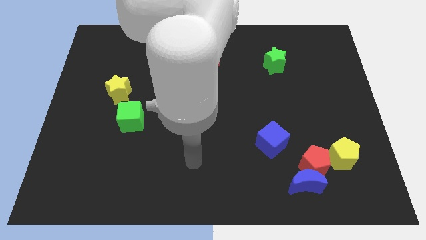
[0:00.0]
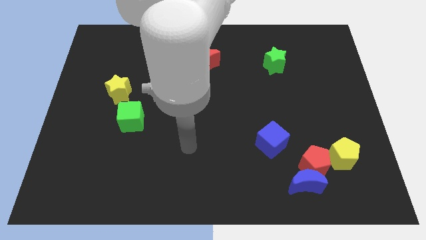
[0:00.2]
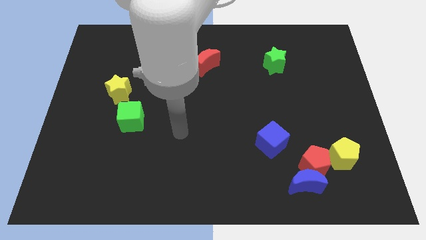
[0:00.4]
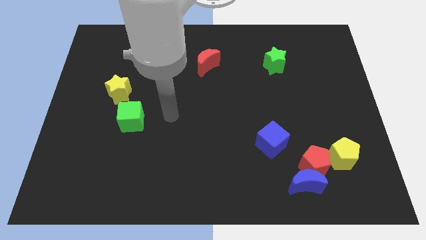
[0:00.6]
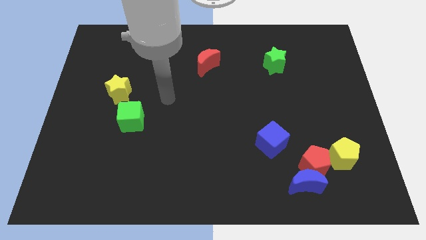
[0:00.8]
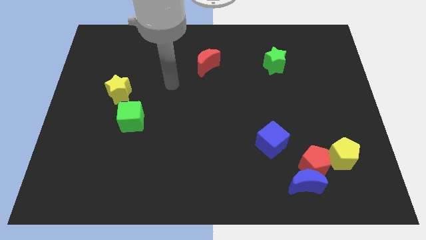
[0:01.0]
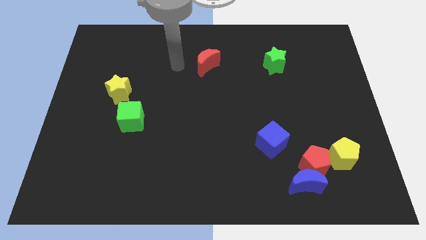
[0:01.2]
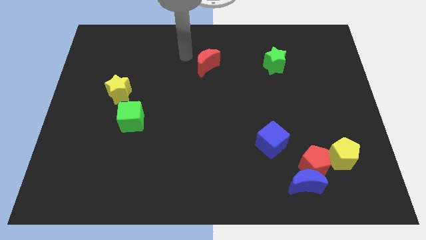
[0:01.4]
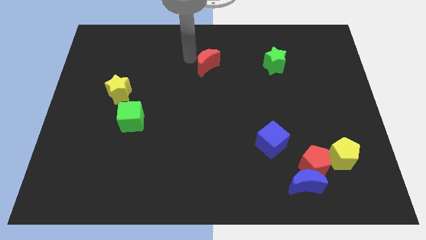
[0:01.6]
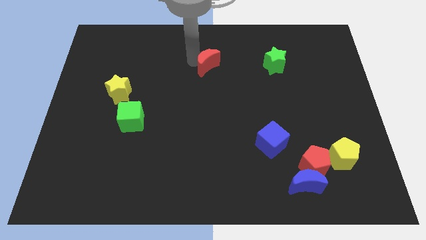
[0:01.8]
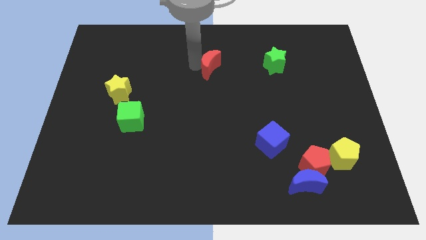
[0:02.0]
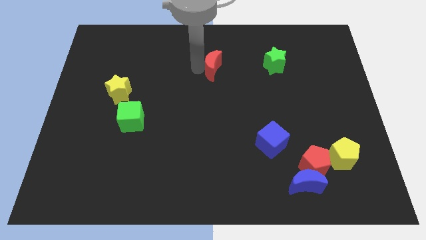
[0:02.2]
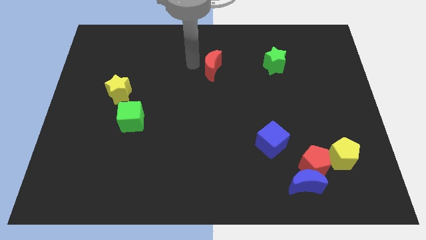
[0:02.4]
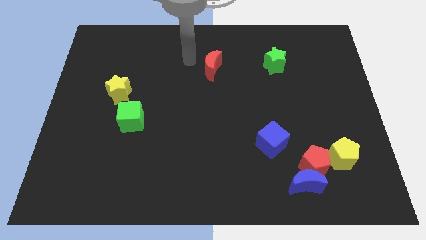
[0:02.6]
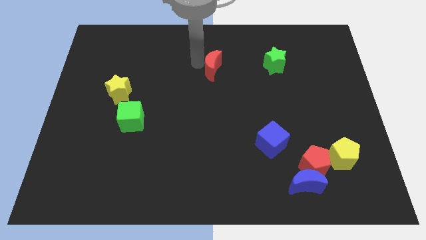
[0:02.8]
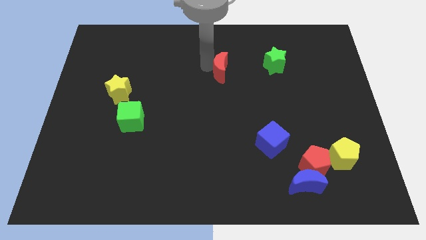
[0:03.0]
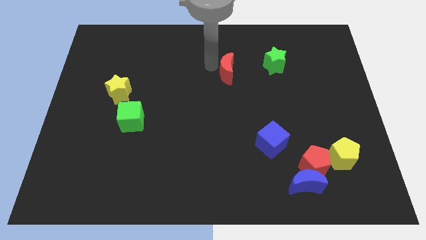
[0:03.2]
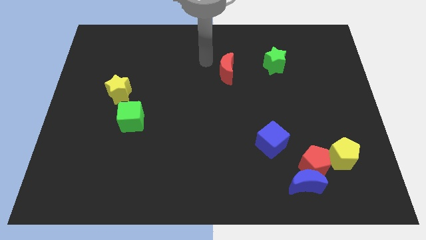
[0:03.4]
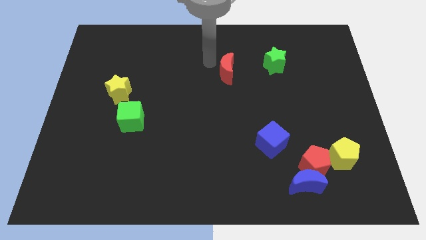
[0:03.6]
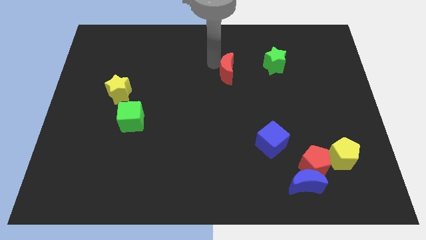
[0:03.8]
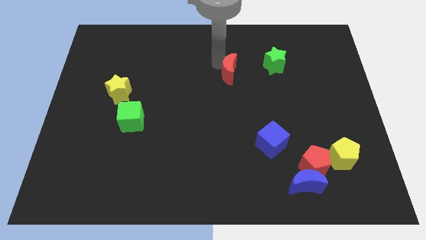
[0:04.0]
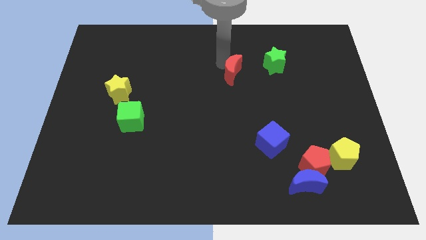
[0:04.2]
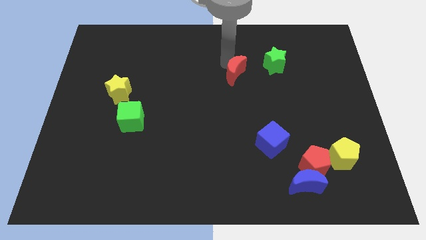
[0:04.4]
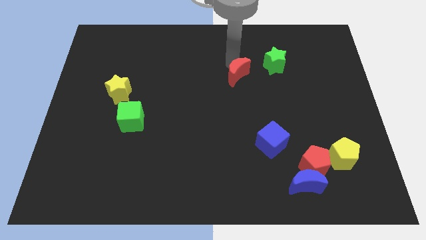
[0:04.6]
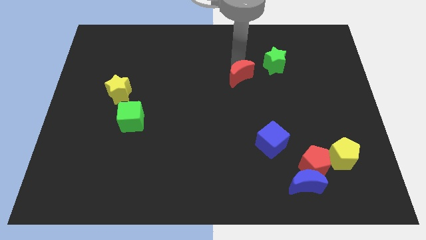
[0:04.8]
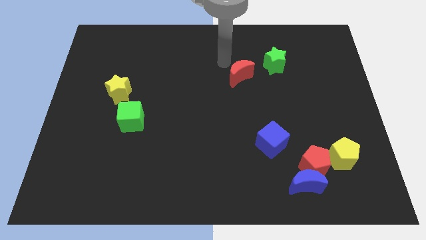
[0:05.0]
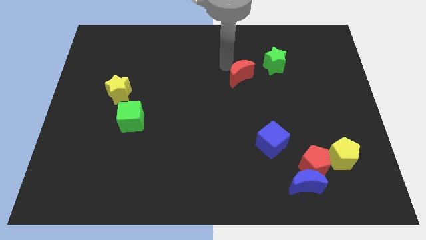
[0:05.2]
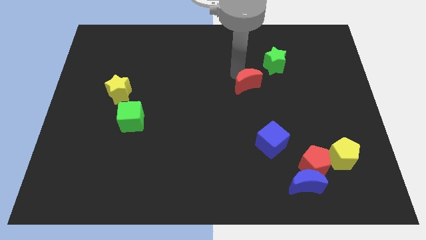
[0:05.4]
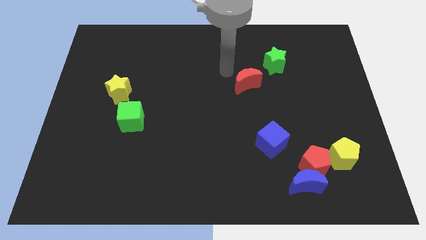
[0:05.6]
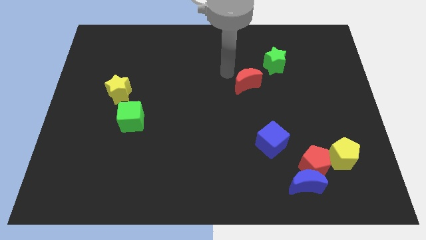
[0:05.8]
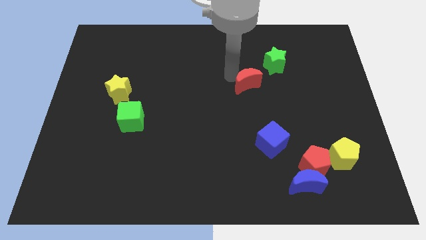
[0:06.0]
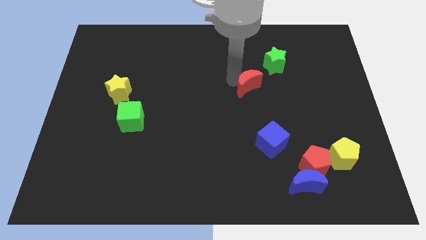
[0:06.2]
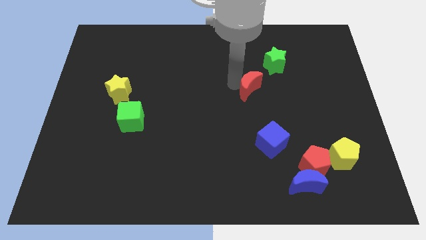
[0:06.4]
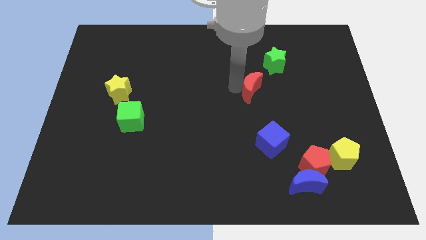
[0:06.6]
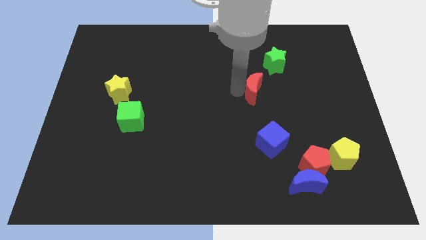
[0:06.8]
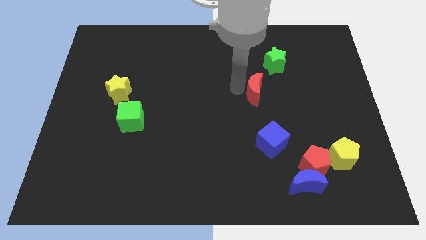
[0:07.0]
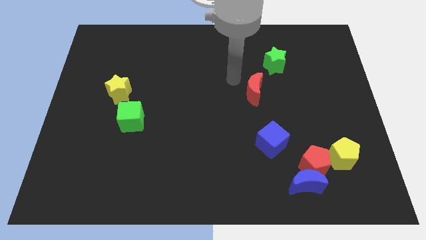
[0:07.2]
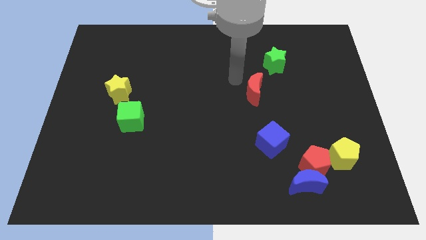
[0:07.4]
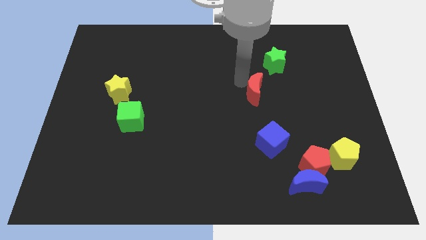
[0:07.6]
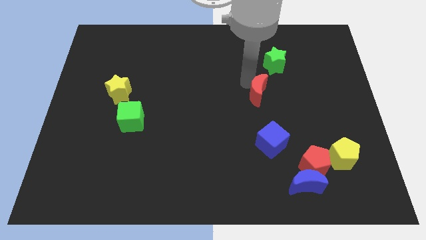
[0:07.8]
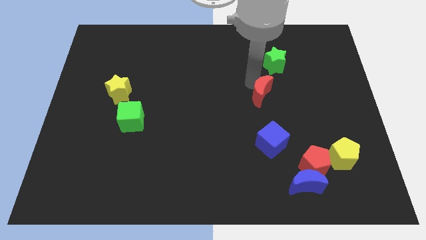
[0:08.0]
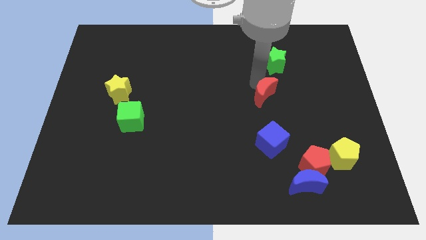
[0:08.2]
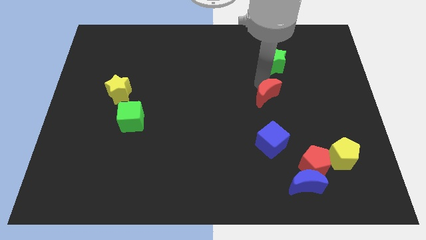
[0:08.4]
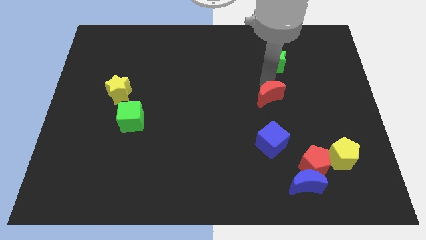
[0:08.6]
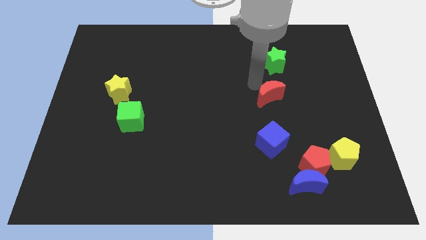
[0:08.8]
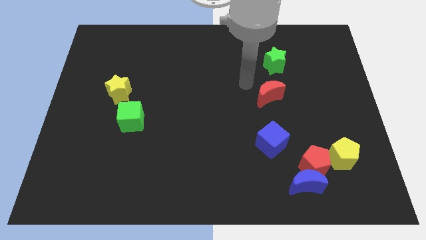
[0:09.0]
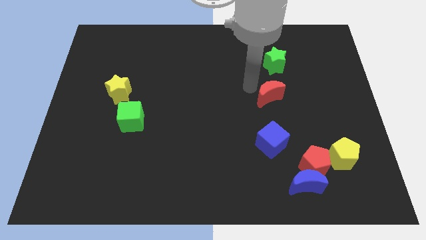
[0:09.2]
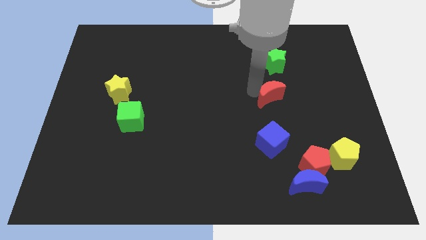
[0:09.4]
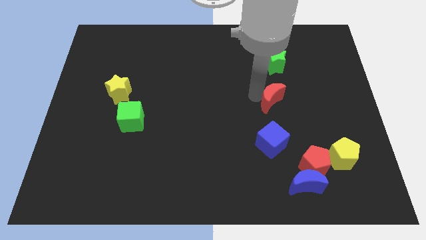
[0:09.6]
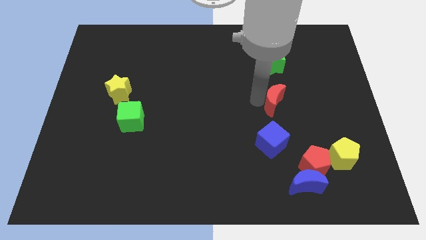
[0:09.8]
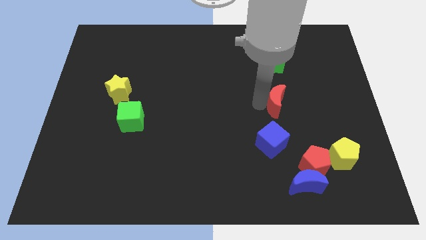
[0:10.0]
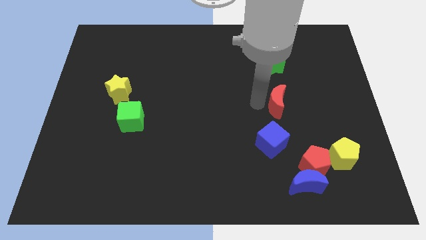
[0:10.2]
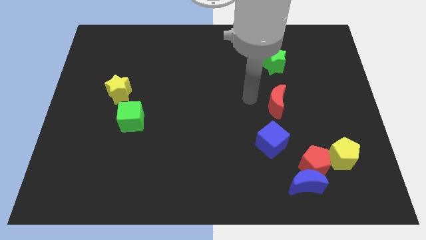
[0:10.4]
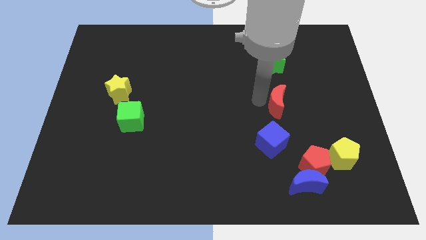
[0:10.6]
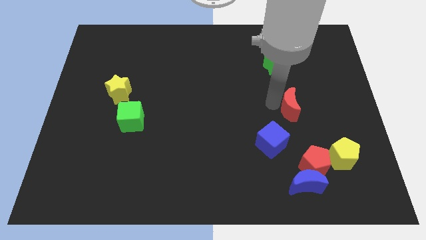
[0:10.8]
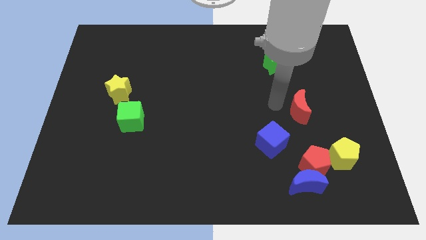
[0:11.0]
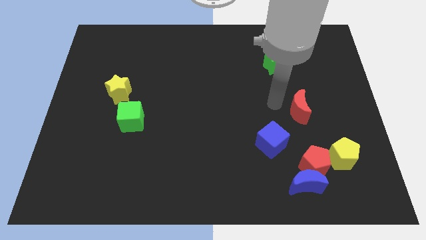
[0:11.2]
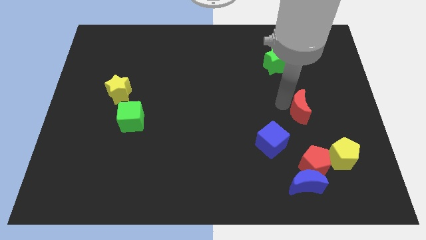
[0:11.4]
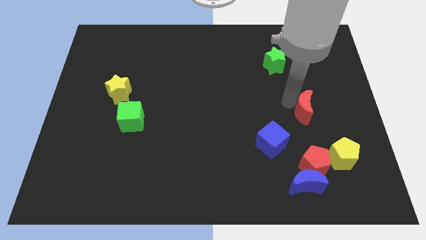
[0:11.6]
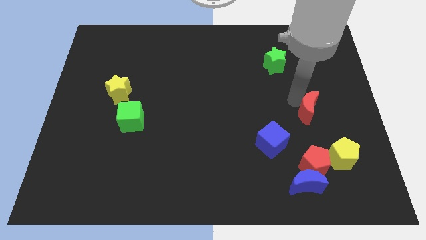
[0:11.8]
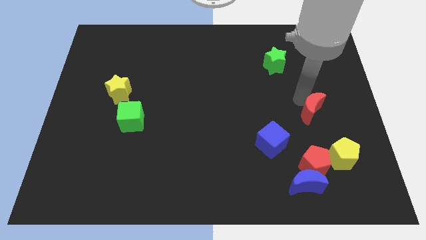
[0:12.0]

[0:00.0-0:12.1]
put the red moon to the top side of the yellow pentagon

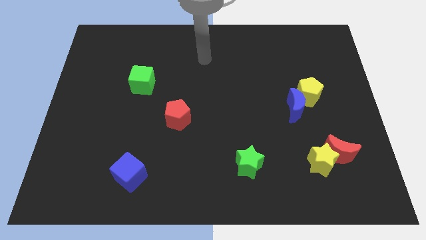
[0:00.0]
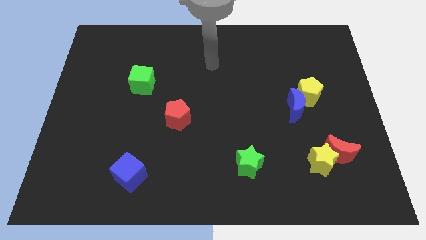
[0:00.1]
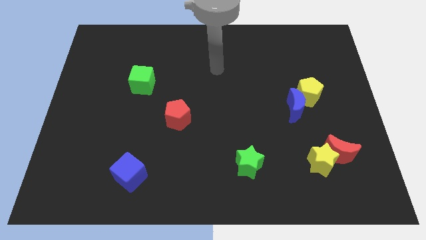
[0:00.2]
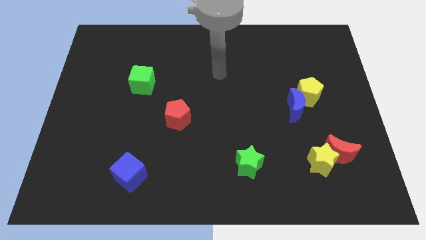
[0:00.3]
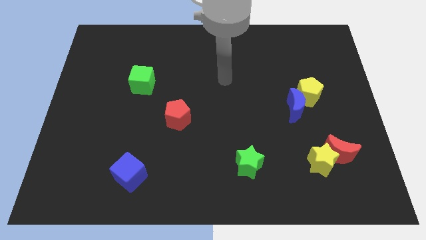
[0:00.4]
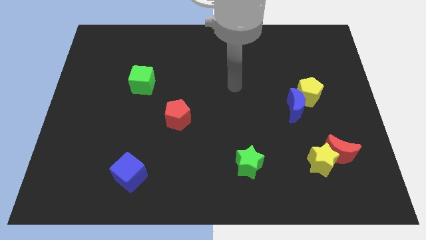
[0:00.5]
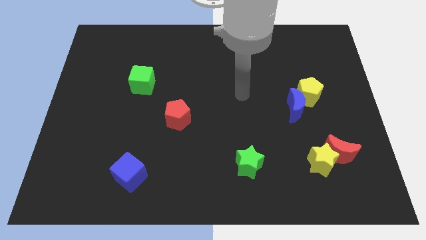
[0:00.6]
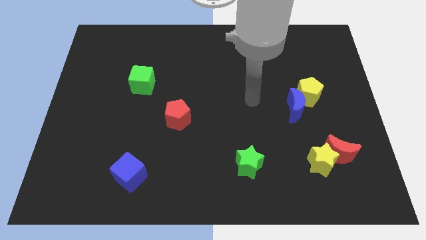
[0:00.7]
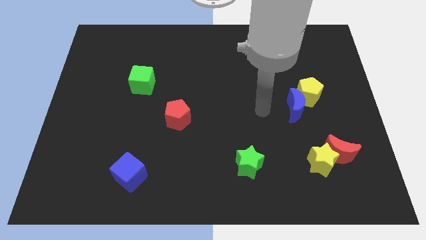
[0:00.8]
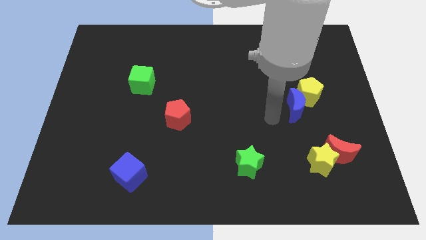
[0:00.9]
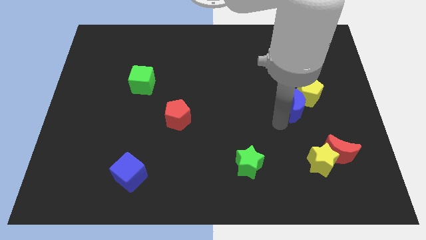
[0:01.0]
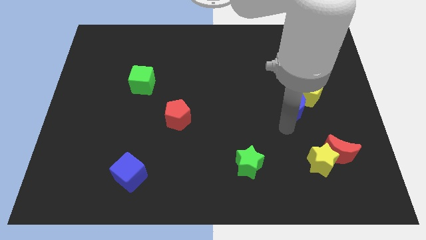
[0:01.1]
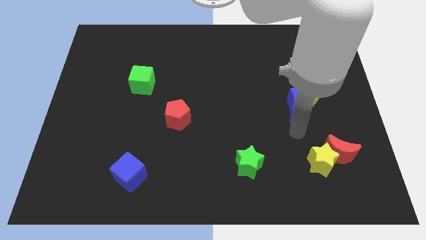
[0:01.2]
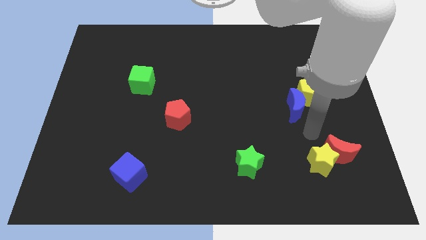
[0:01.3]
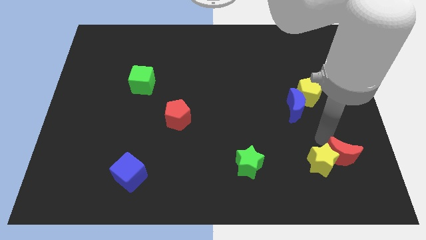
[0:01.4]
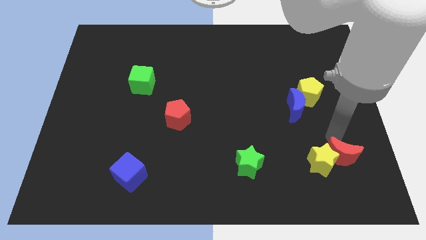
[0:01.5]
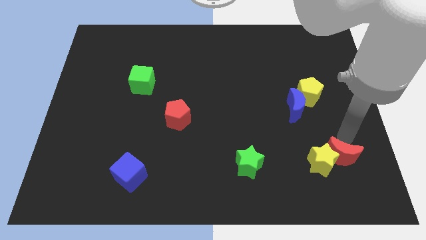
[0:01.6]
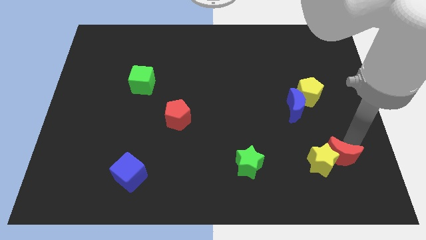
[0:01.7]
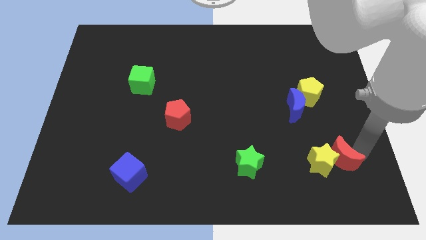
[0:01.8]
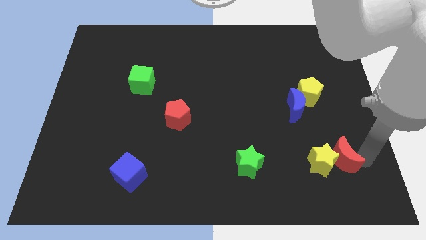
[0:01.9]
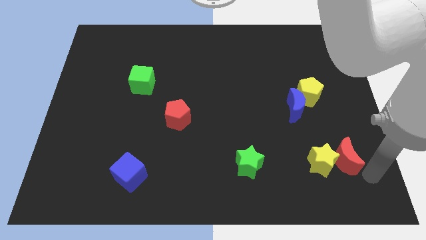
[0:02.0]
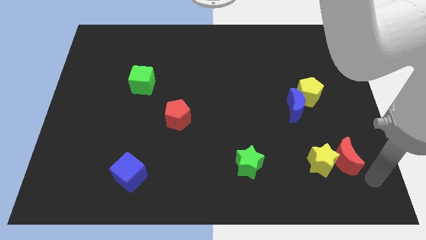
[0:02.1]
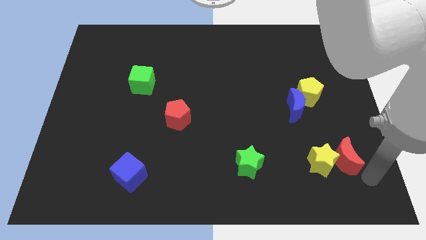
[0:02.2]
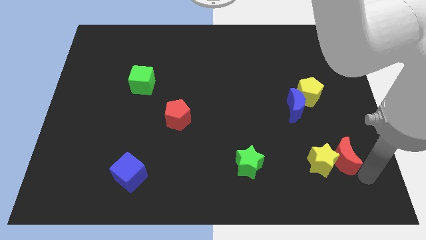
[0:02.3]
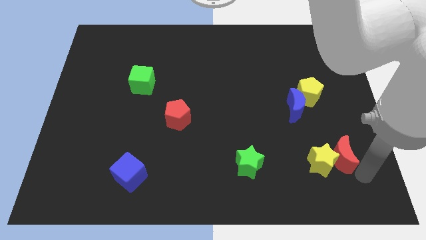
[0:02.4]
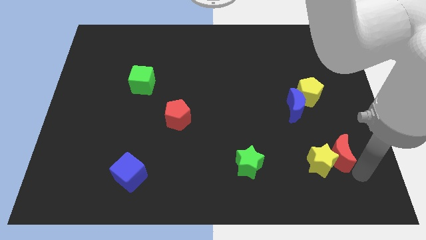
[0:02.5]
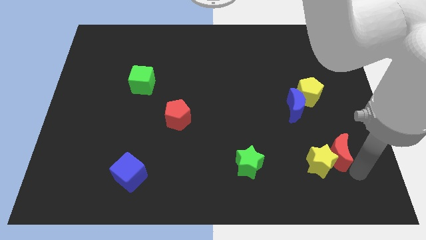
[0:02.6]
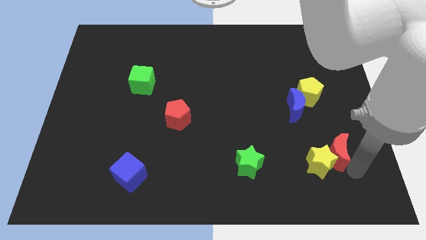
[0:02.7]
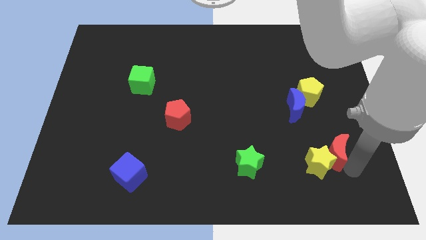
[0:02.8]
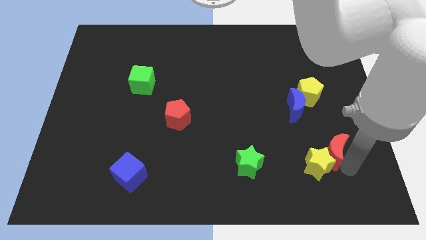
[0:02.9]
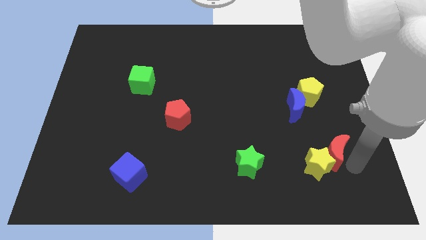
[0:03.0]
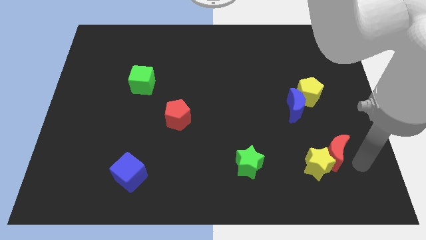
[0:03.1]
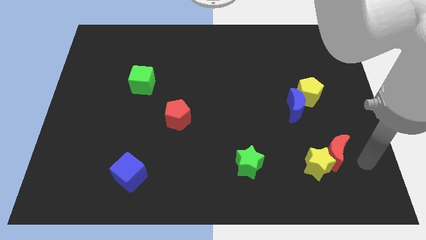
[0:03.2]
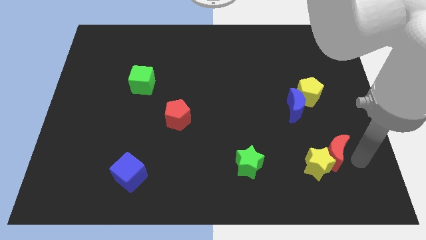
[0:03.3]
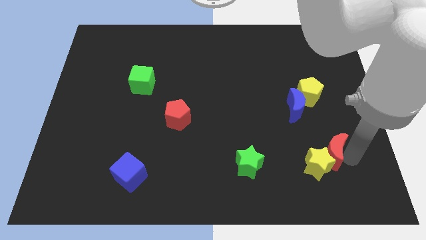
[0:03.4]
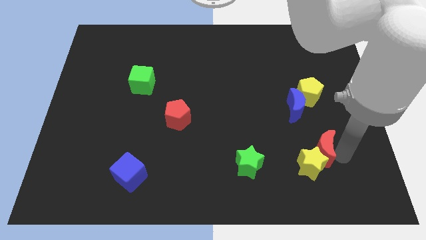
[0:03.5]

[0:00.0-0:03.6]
push the red moon below the blue moon
